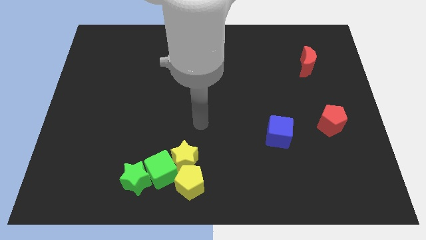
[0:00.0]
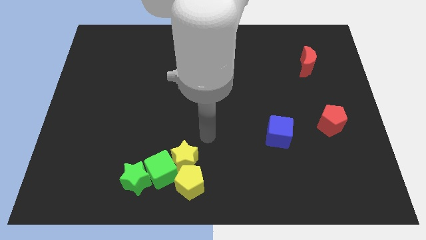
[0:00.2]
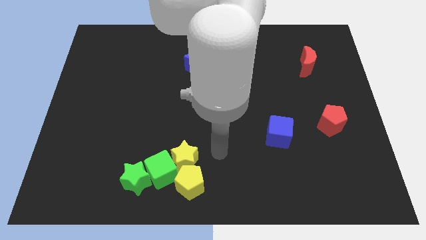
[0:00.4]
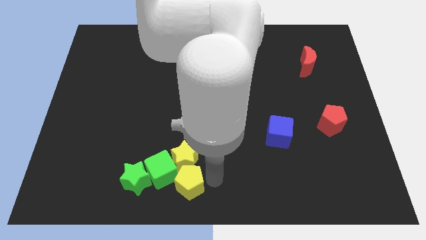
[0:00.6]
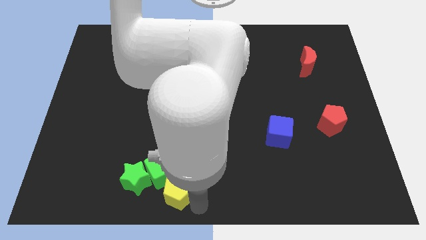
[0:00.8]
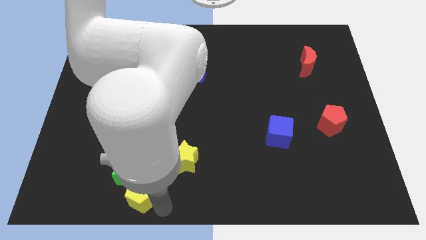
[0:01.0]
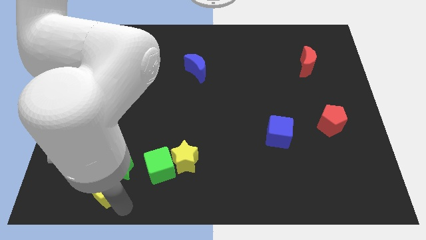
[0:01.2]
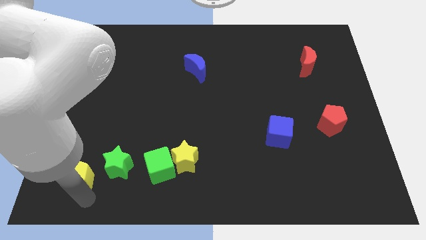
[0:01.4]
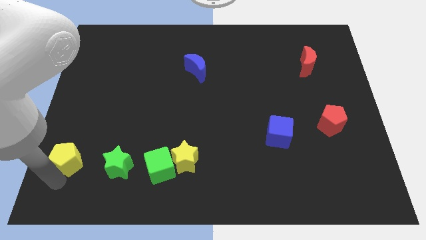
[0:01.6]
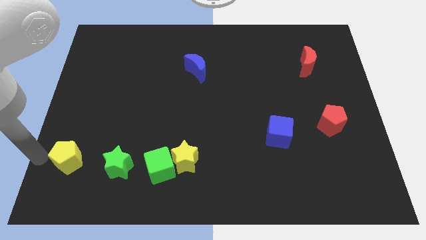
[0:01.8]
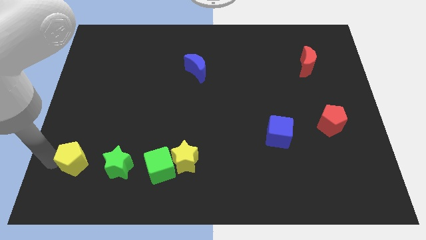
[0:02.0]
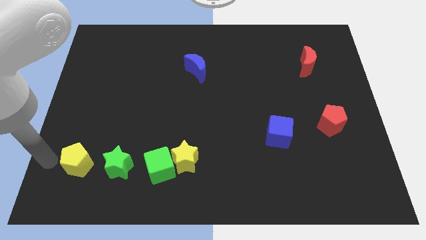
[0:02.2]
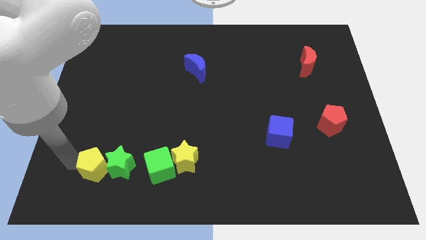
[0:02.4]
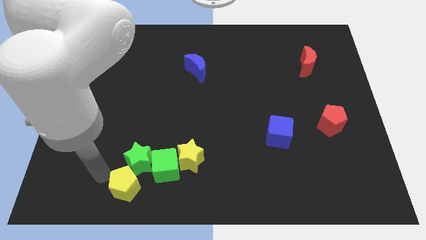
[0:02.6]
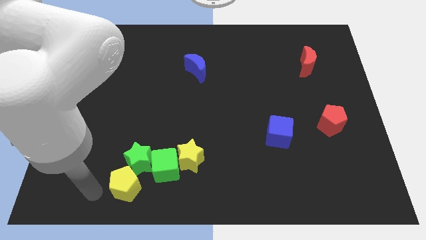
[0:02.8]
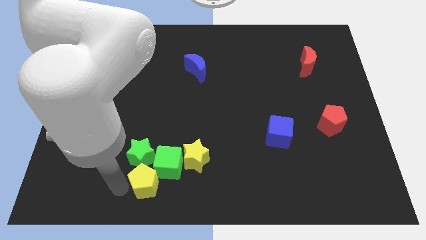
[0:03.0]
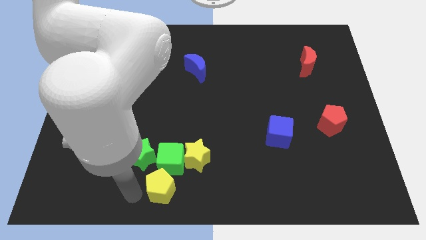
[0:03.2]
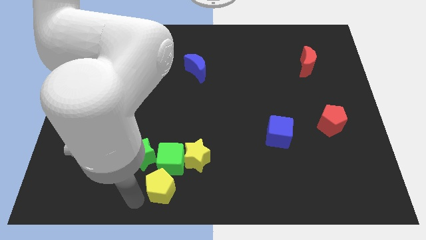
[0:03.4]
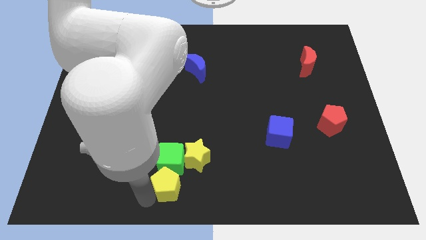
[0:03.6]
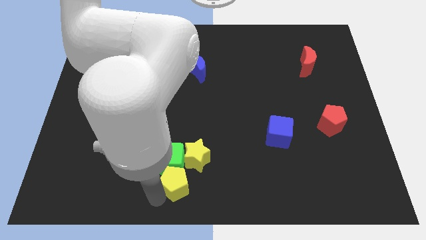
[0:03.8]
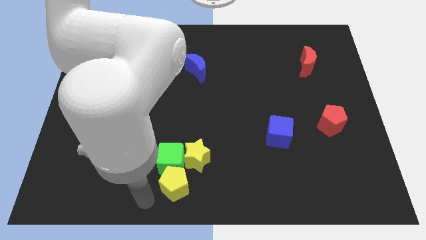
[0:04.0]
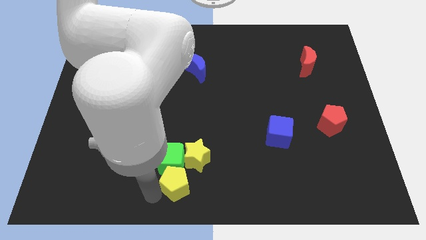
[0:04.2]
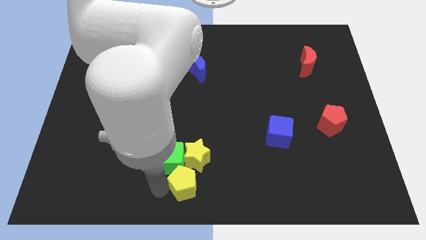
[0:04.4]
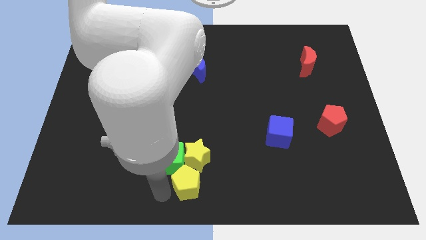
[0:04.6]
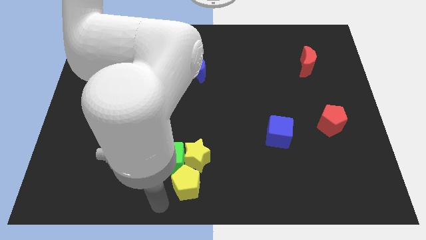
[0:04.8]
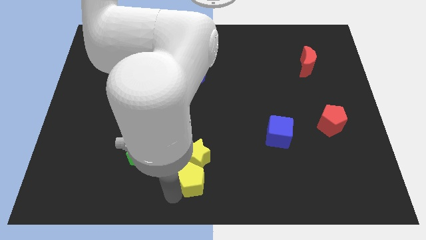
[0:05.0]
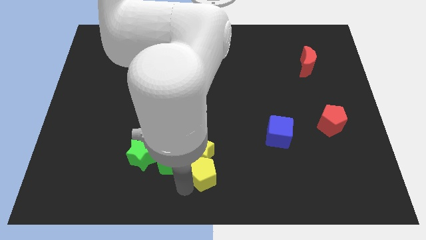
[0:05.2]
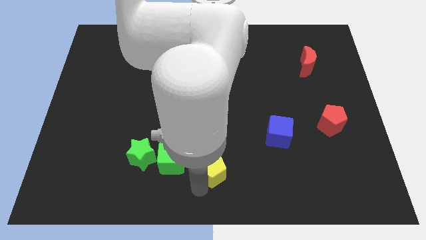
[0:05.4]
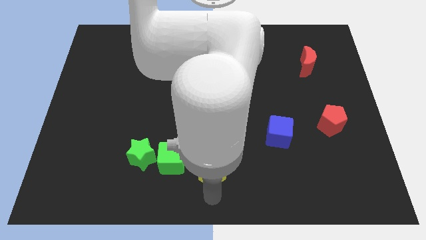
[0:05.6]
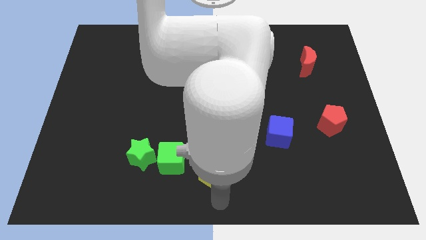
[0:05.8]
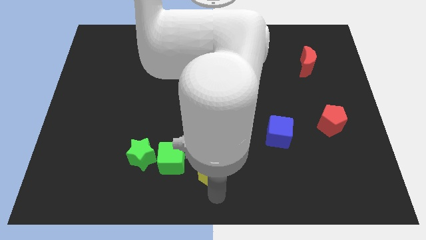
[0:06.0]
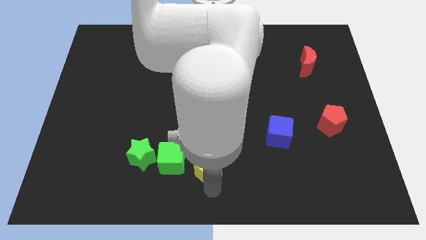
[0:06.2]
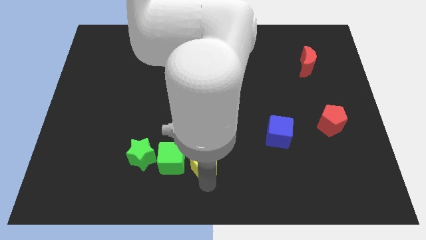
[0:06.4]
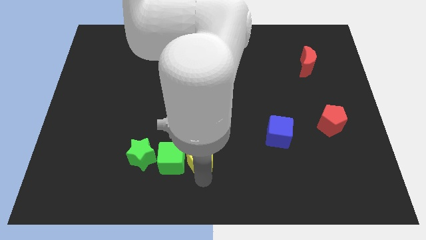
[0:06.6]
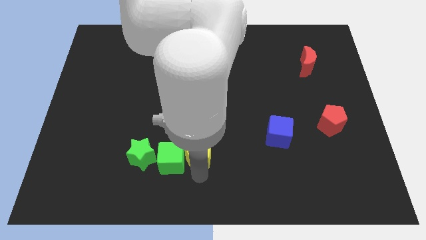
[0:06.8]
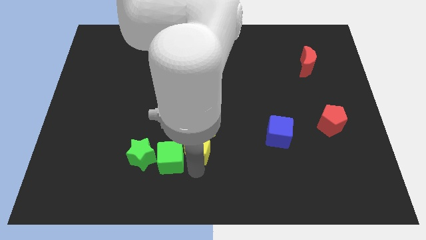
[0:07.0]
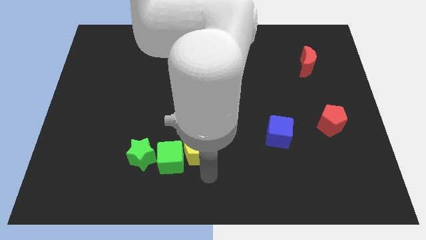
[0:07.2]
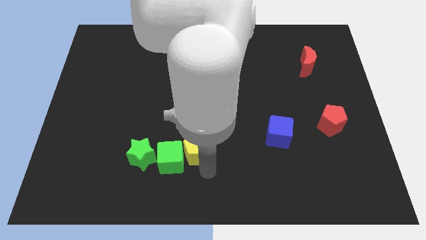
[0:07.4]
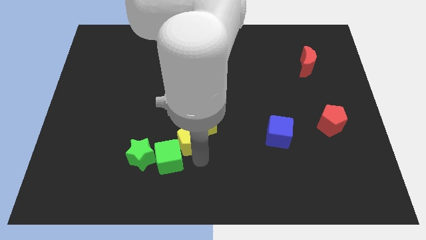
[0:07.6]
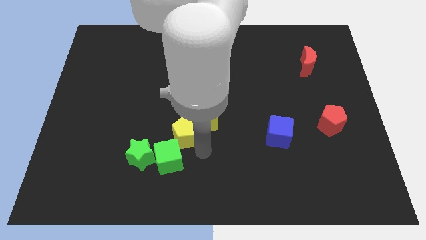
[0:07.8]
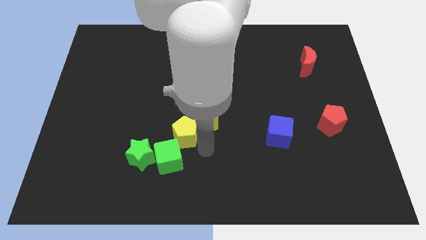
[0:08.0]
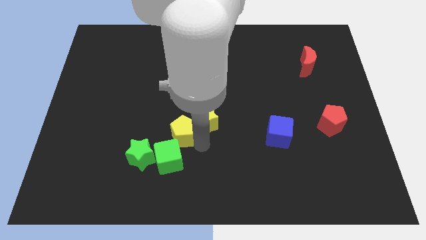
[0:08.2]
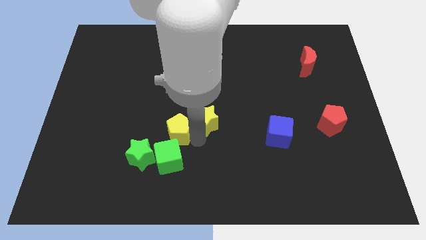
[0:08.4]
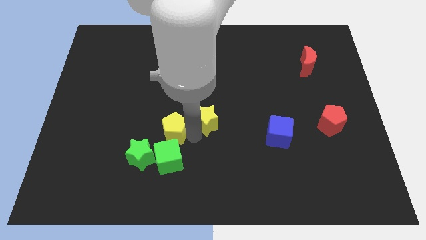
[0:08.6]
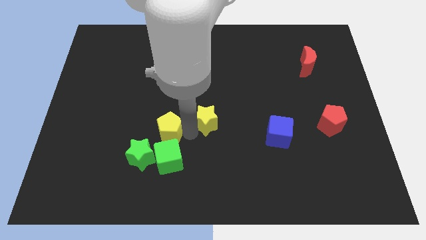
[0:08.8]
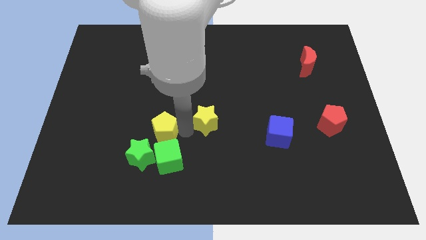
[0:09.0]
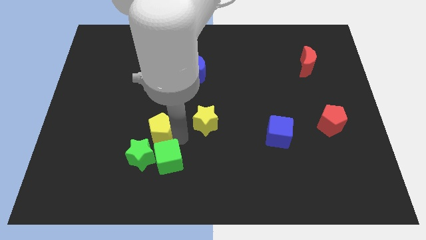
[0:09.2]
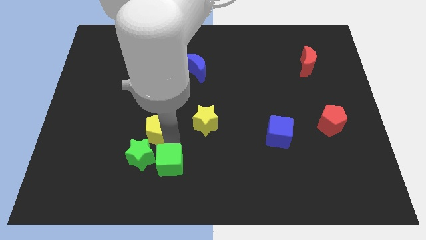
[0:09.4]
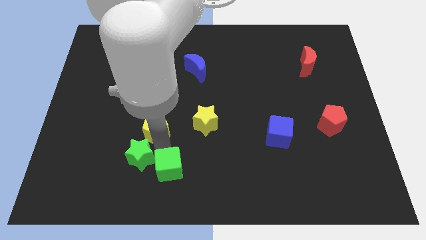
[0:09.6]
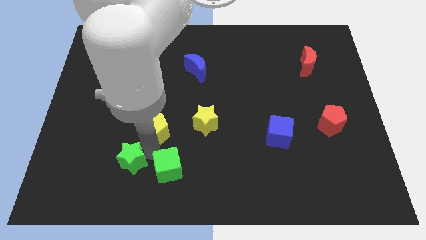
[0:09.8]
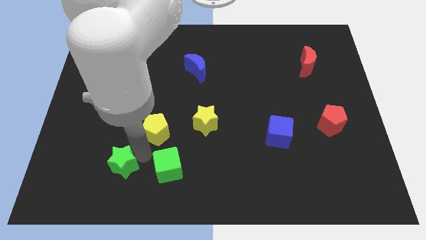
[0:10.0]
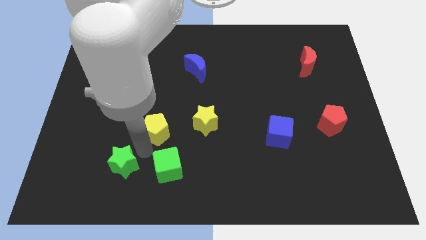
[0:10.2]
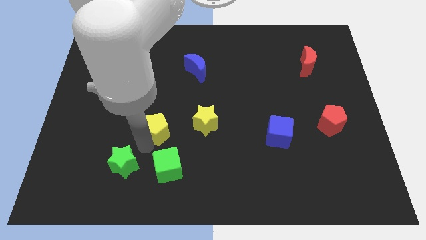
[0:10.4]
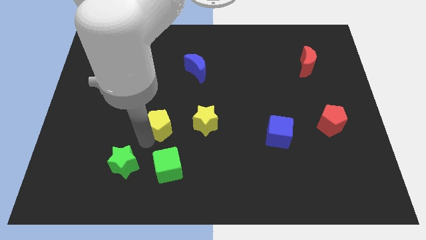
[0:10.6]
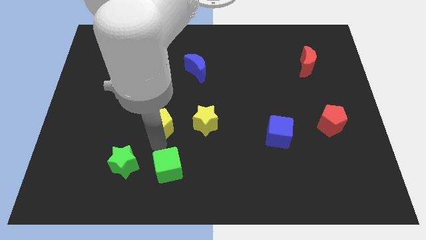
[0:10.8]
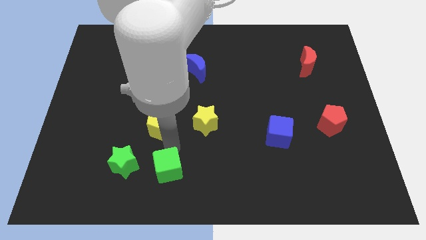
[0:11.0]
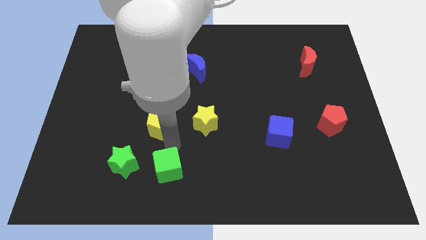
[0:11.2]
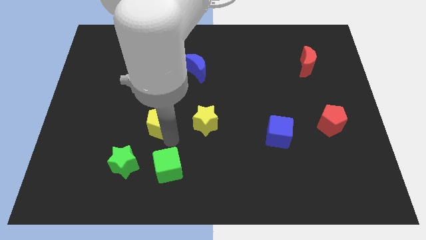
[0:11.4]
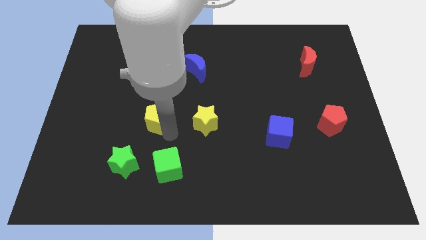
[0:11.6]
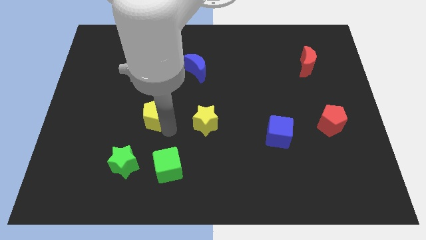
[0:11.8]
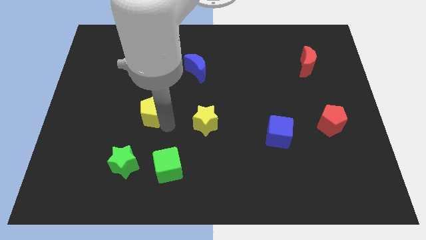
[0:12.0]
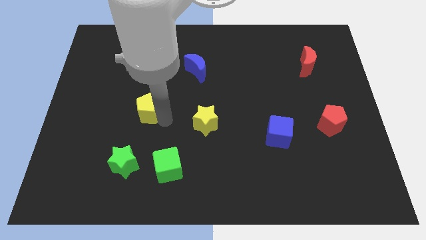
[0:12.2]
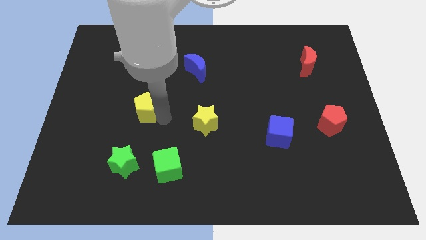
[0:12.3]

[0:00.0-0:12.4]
slide the yellow pentagon up and to the left

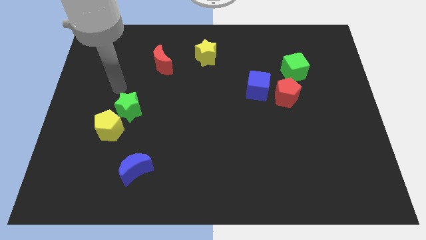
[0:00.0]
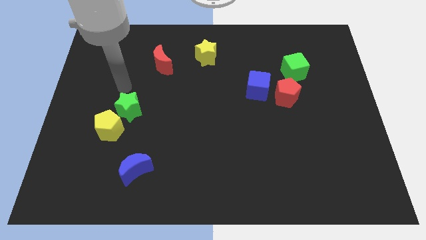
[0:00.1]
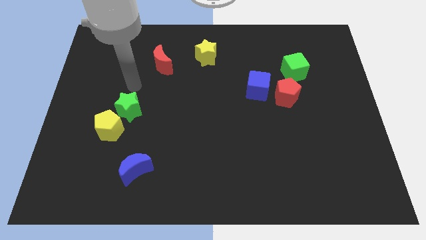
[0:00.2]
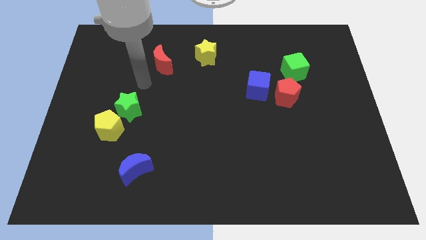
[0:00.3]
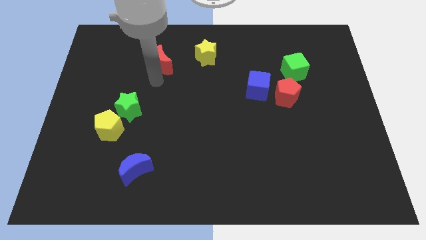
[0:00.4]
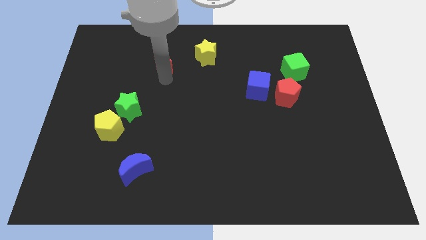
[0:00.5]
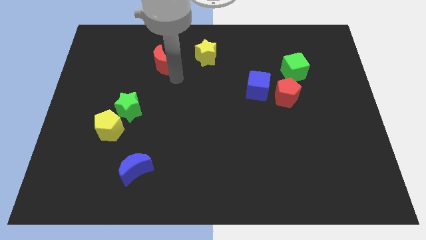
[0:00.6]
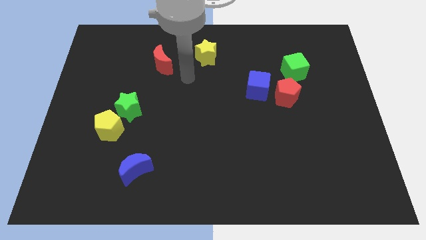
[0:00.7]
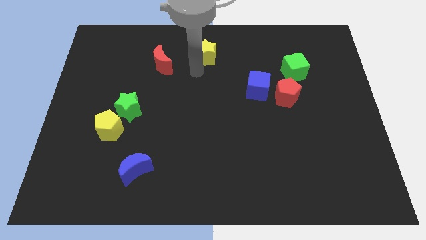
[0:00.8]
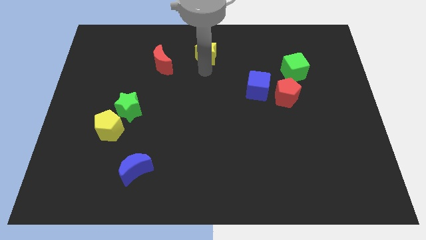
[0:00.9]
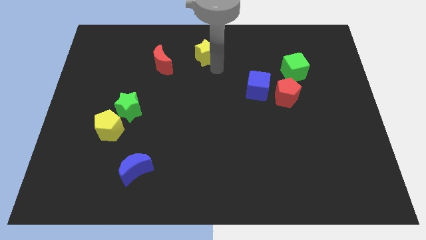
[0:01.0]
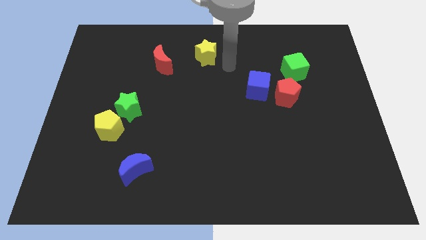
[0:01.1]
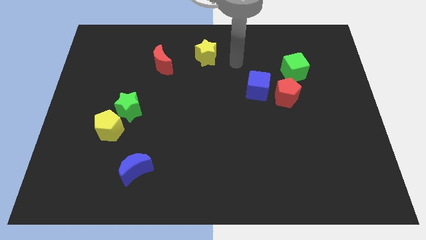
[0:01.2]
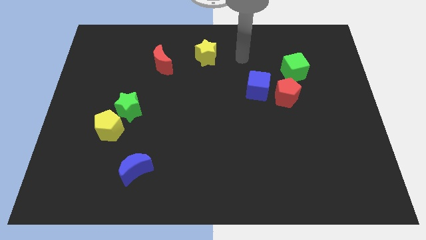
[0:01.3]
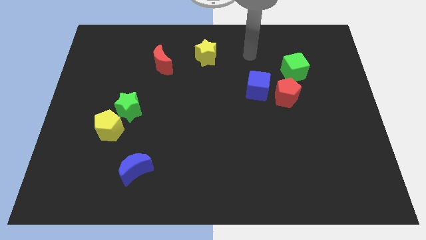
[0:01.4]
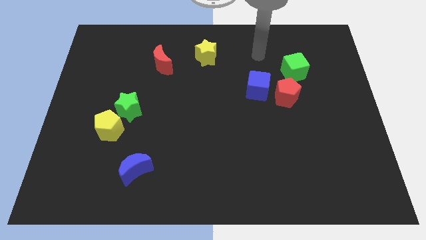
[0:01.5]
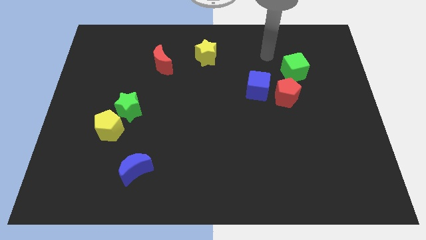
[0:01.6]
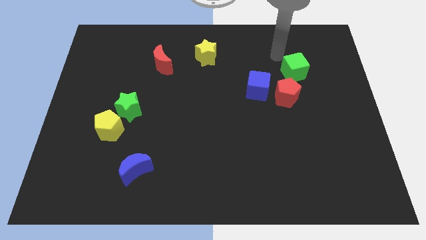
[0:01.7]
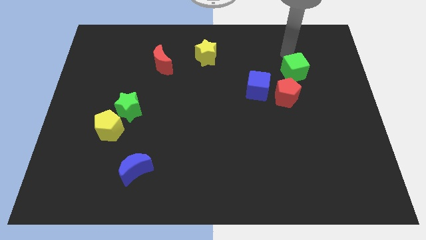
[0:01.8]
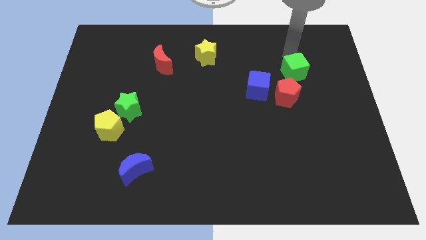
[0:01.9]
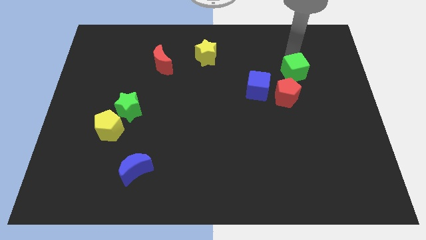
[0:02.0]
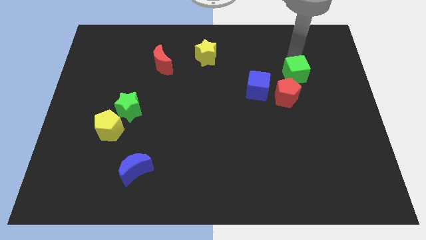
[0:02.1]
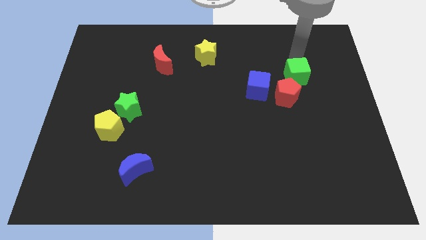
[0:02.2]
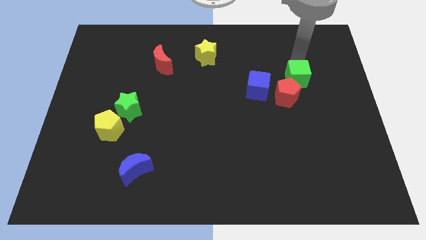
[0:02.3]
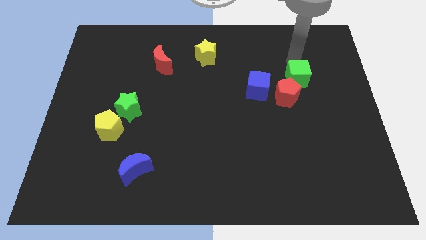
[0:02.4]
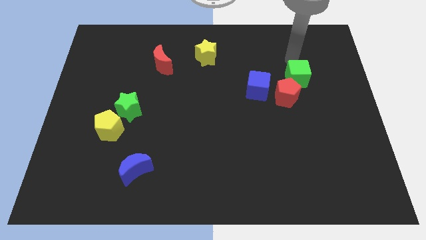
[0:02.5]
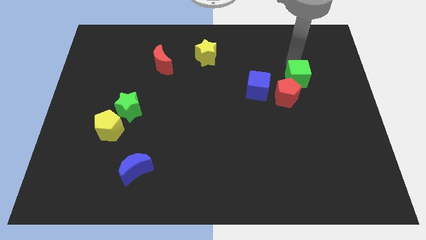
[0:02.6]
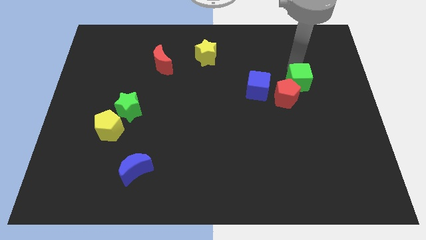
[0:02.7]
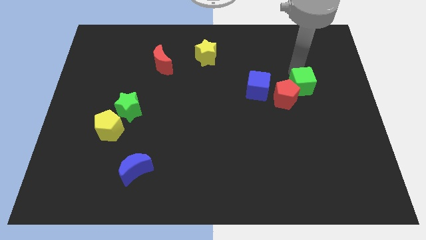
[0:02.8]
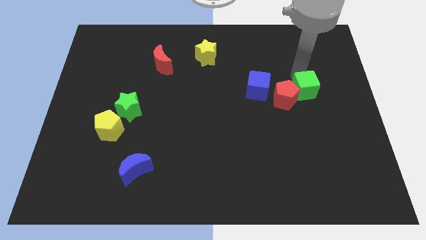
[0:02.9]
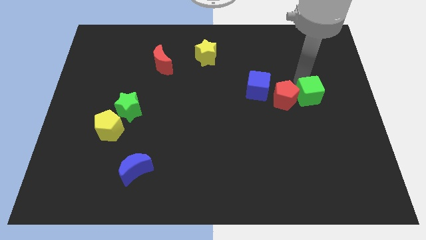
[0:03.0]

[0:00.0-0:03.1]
push the green cube a little bit downwards
